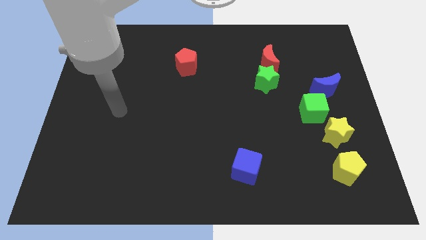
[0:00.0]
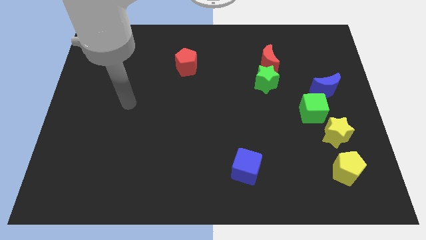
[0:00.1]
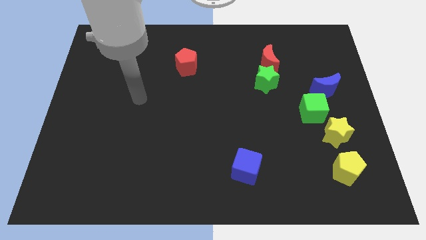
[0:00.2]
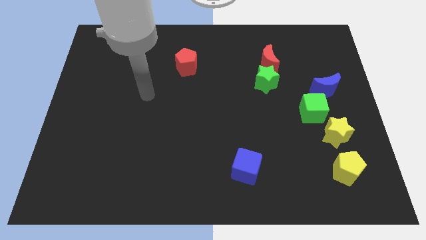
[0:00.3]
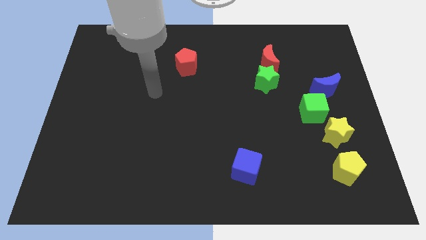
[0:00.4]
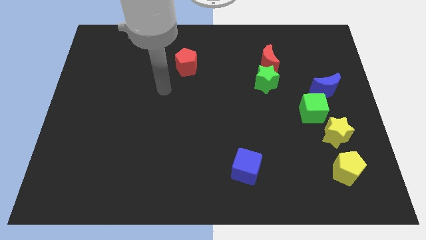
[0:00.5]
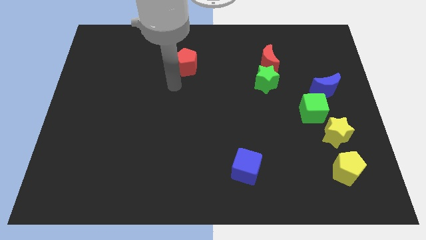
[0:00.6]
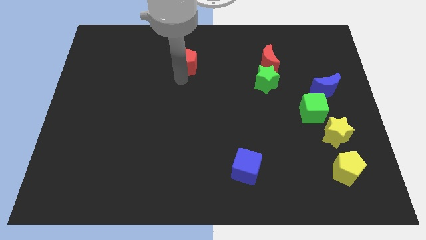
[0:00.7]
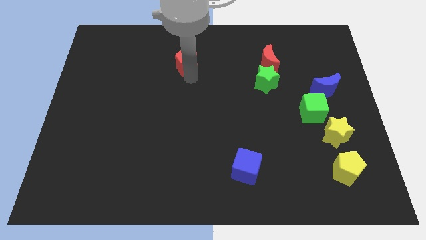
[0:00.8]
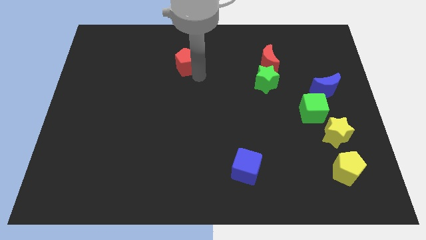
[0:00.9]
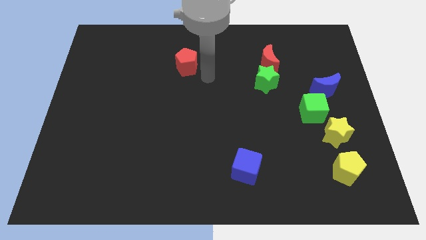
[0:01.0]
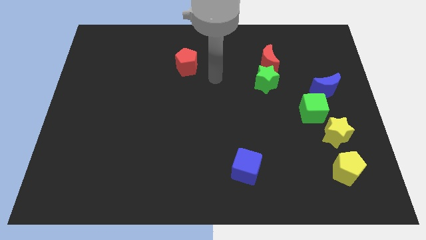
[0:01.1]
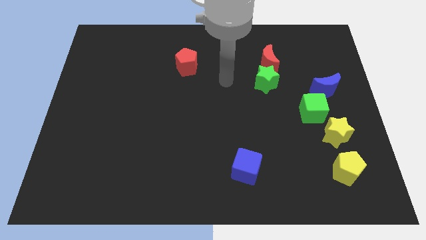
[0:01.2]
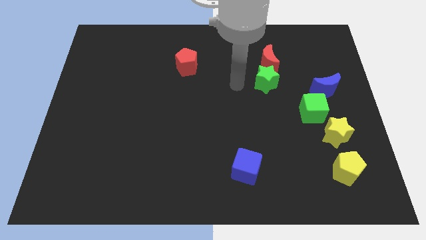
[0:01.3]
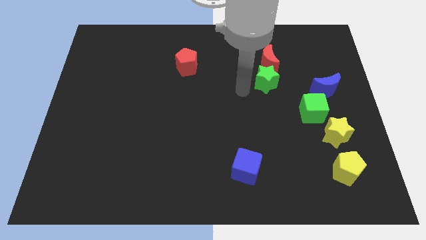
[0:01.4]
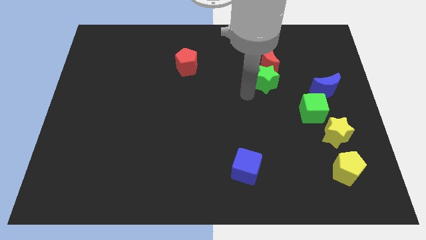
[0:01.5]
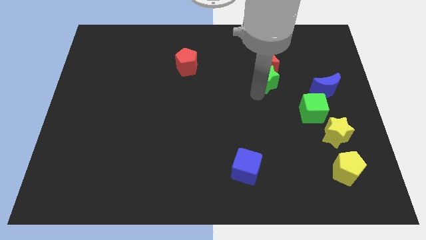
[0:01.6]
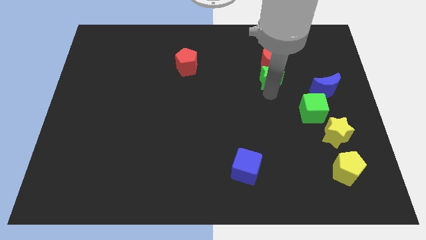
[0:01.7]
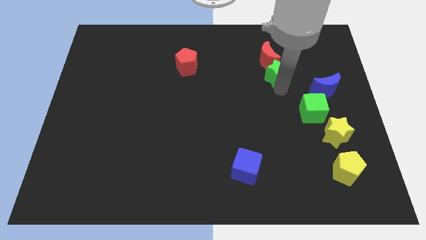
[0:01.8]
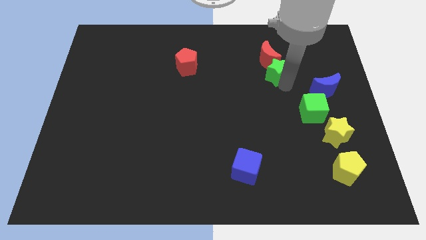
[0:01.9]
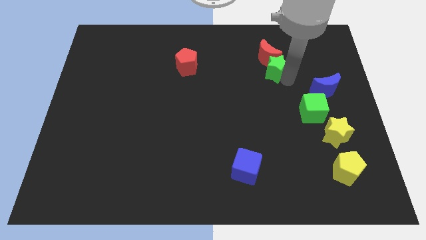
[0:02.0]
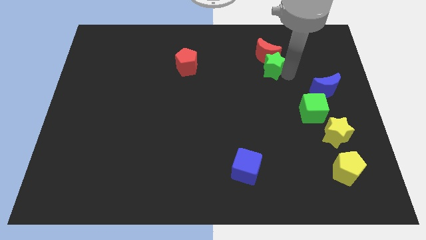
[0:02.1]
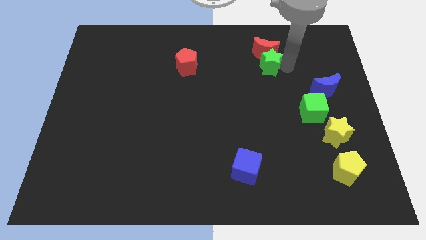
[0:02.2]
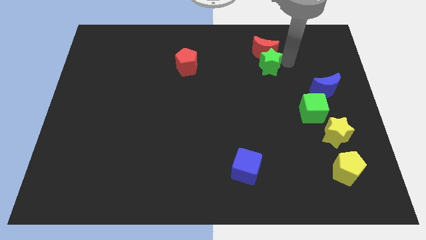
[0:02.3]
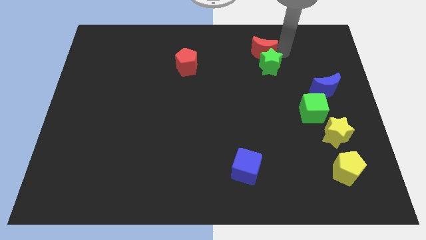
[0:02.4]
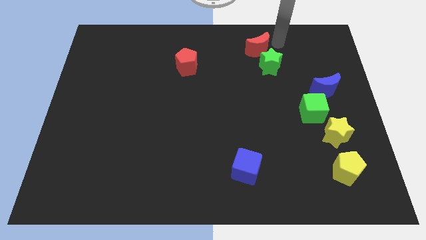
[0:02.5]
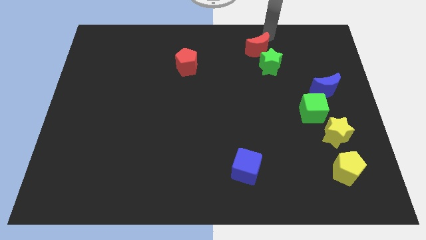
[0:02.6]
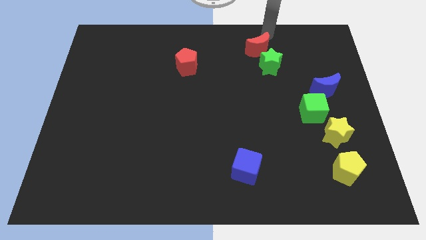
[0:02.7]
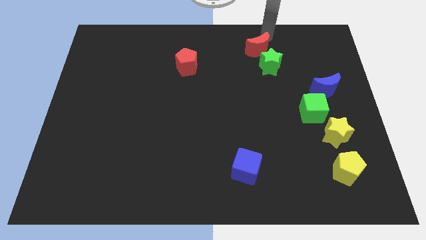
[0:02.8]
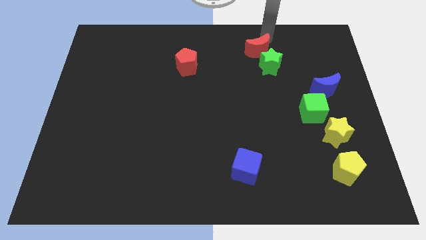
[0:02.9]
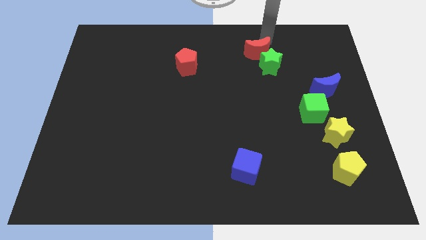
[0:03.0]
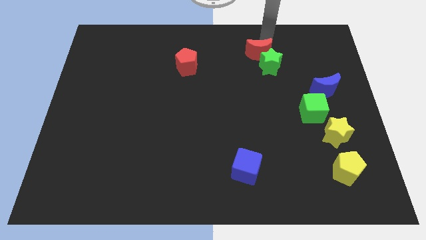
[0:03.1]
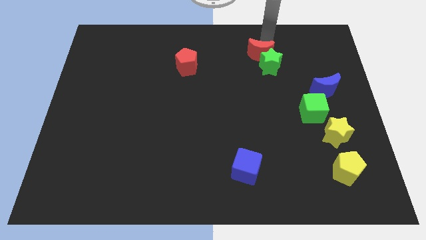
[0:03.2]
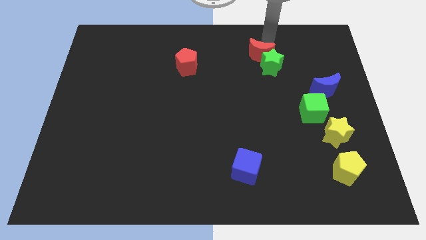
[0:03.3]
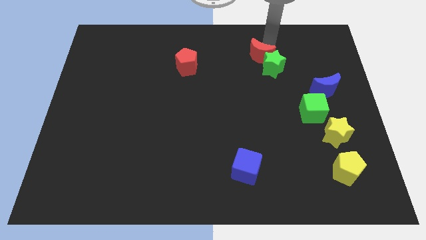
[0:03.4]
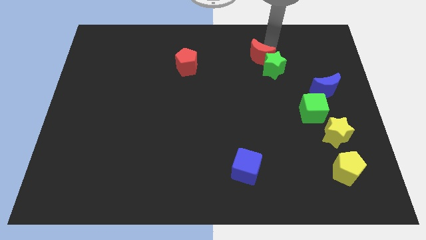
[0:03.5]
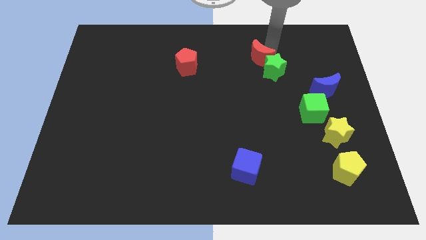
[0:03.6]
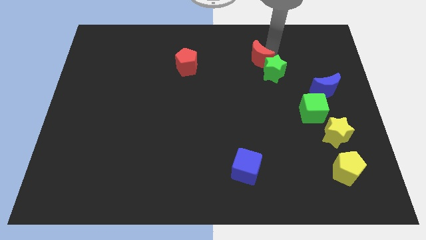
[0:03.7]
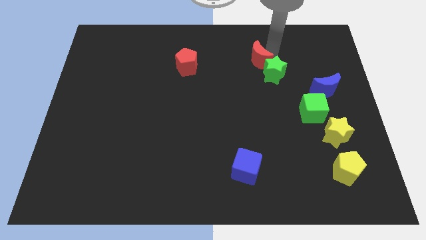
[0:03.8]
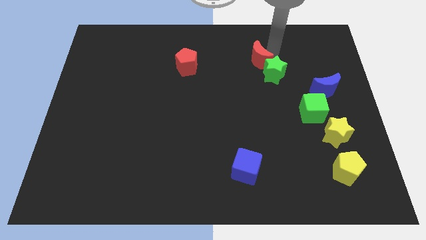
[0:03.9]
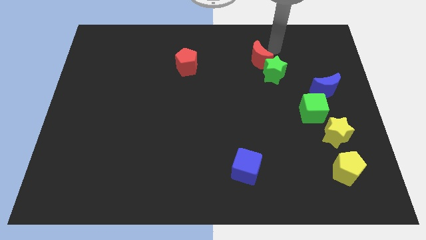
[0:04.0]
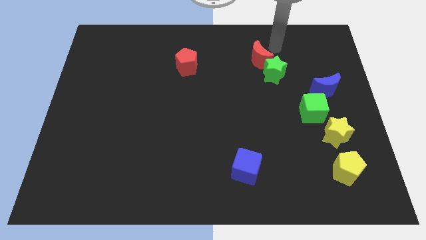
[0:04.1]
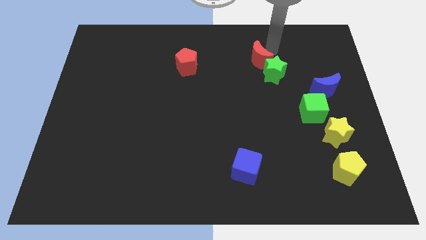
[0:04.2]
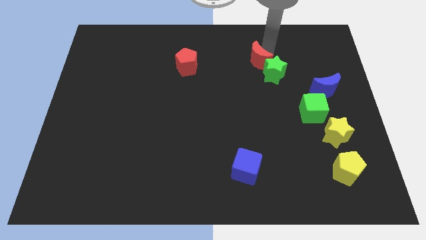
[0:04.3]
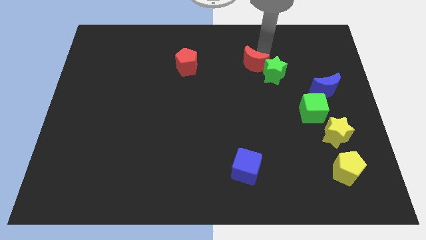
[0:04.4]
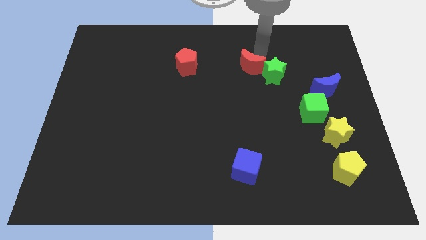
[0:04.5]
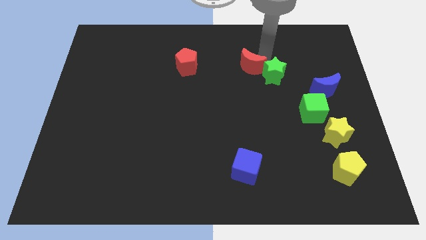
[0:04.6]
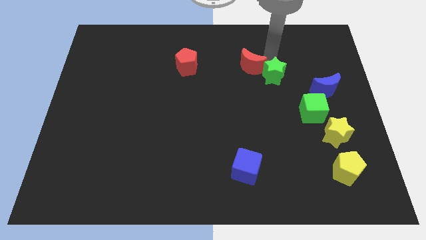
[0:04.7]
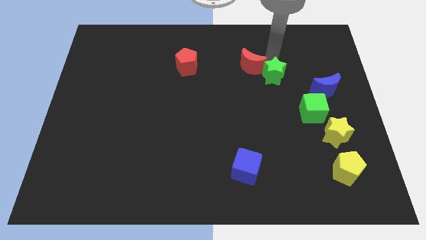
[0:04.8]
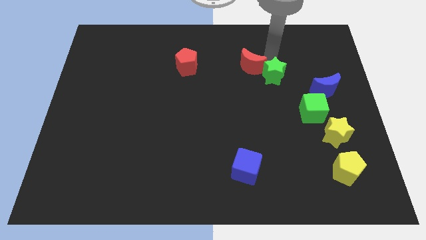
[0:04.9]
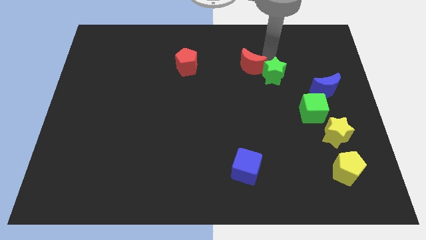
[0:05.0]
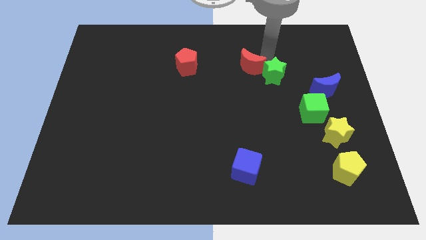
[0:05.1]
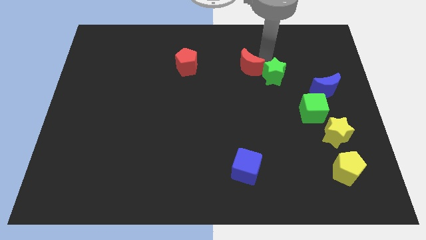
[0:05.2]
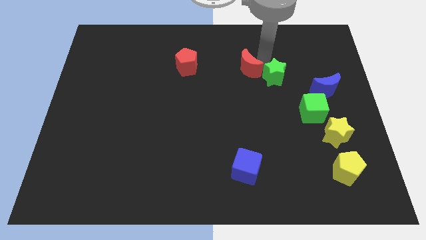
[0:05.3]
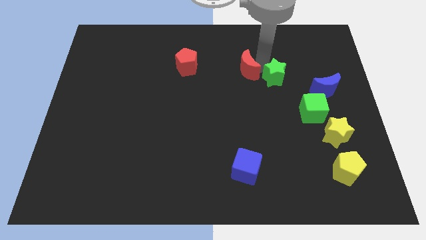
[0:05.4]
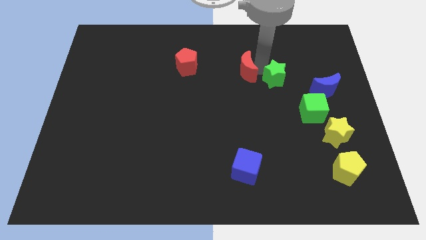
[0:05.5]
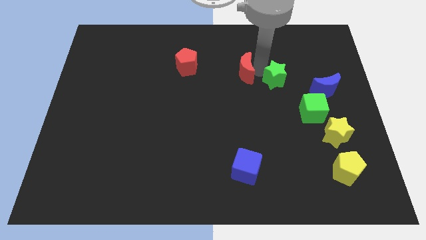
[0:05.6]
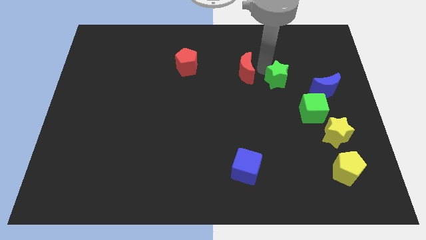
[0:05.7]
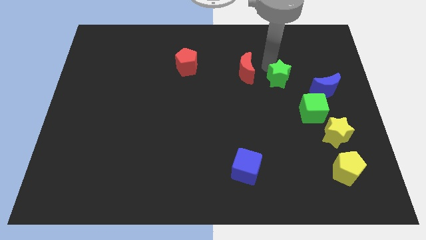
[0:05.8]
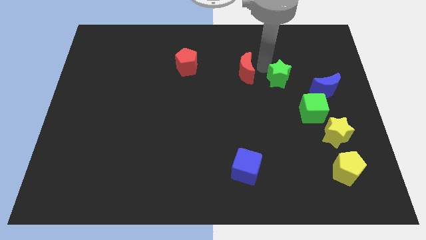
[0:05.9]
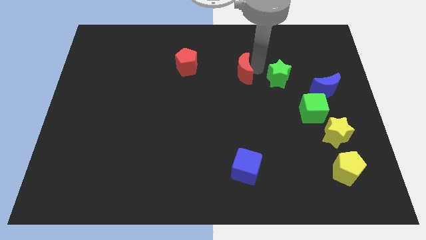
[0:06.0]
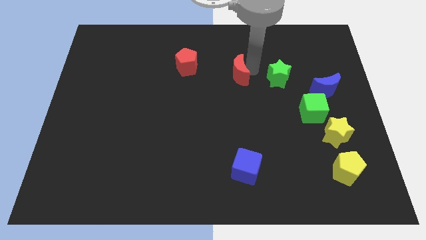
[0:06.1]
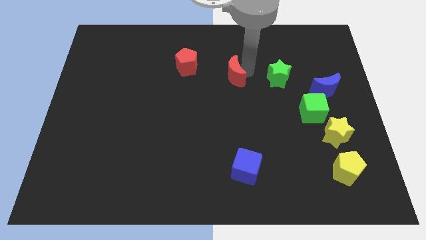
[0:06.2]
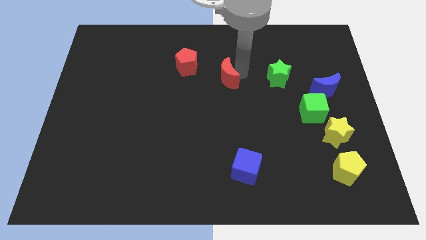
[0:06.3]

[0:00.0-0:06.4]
push the red moon diagonally down and to the right of the red pentagon

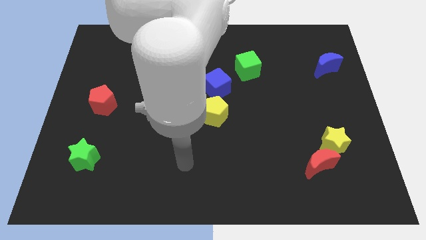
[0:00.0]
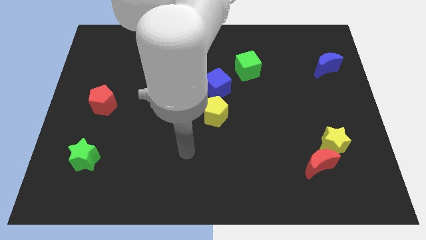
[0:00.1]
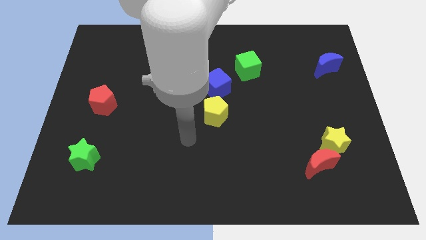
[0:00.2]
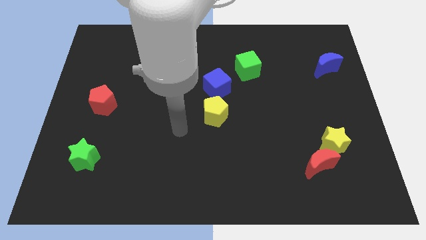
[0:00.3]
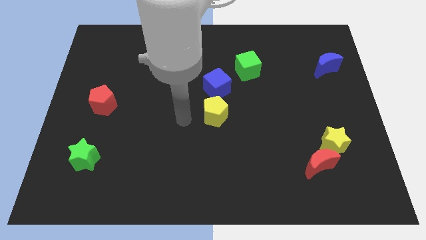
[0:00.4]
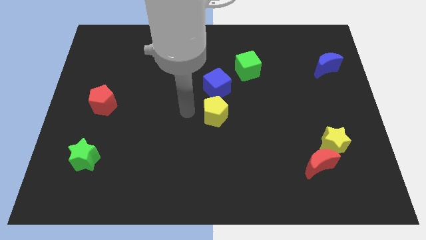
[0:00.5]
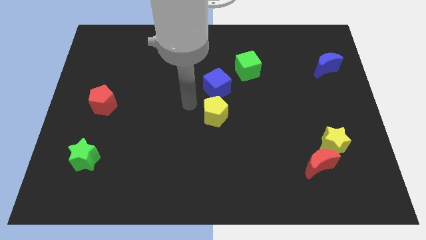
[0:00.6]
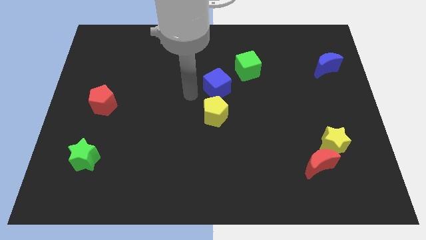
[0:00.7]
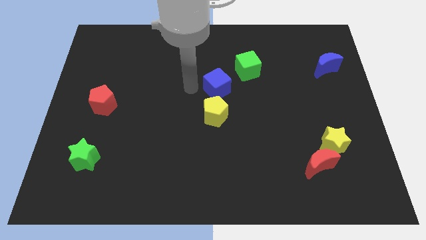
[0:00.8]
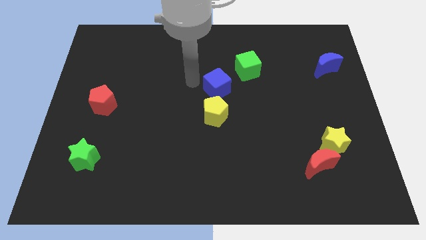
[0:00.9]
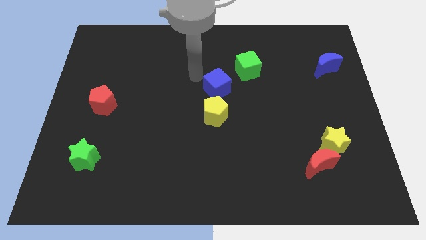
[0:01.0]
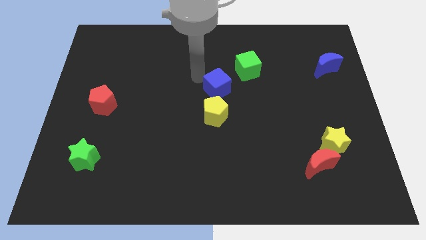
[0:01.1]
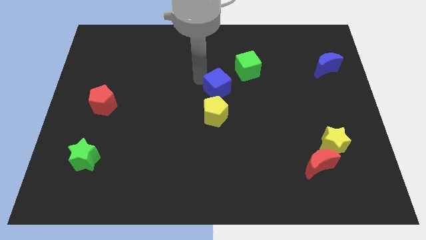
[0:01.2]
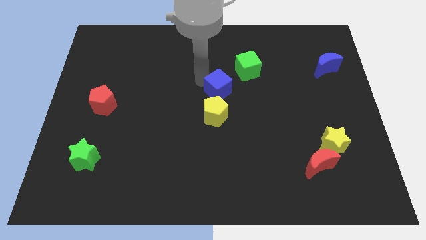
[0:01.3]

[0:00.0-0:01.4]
slide the blue cube diagonally up and to the right of the yellow pentagon
